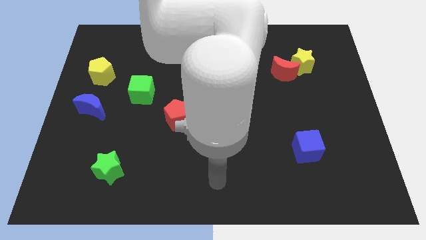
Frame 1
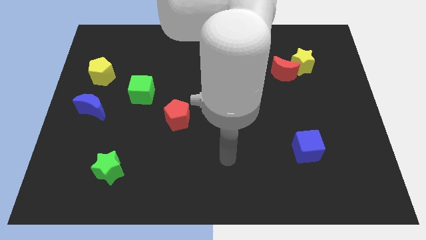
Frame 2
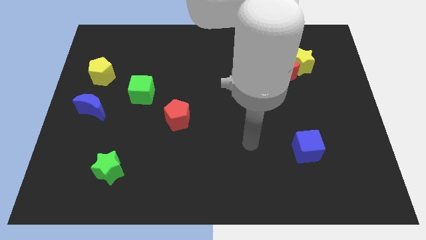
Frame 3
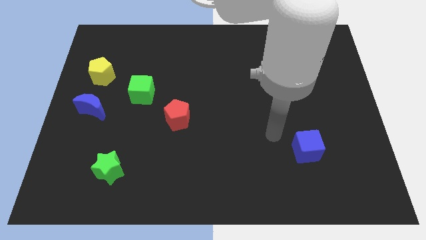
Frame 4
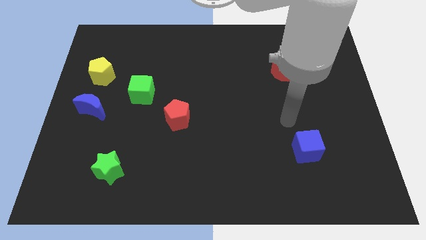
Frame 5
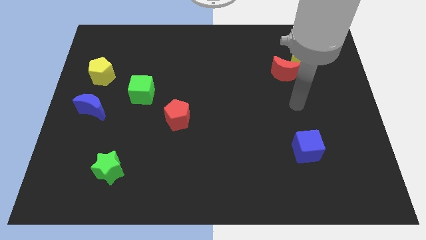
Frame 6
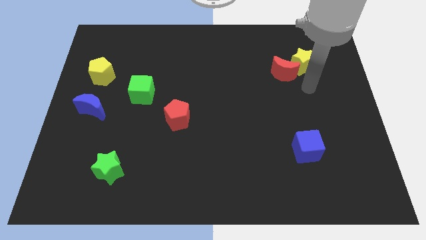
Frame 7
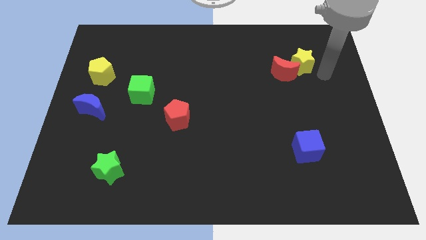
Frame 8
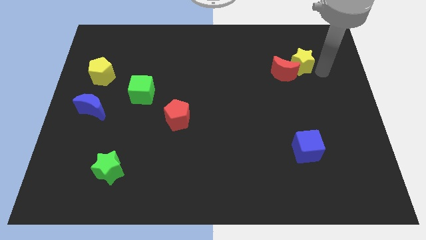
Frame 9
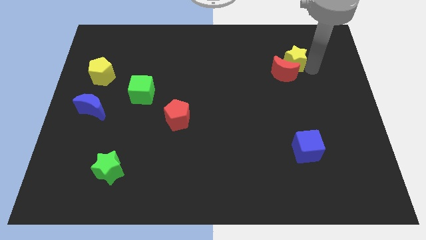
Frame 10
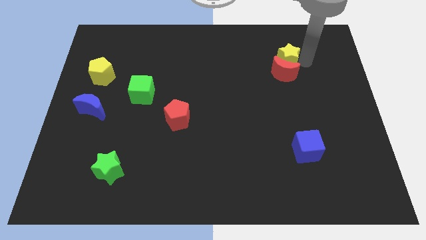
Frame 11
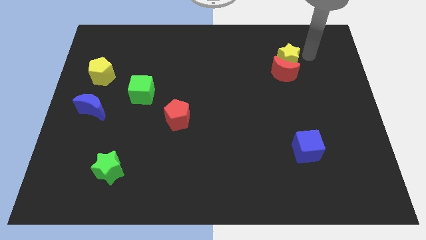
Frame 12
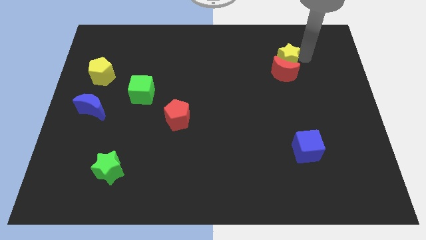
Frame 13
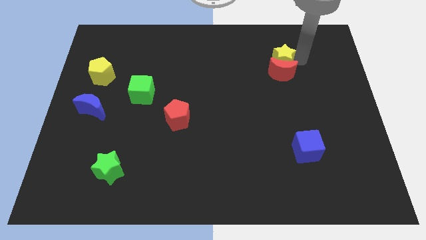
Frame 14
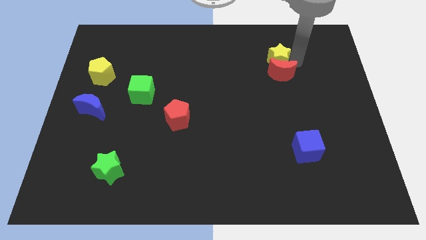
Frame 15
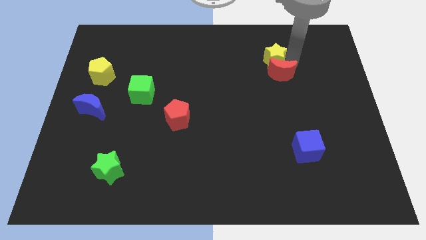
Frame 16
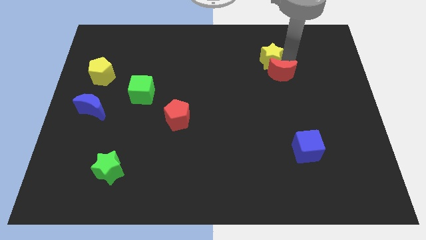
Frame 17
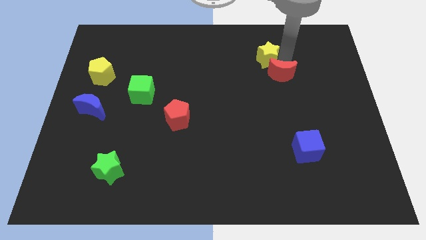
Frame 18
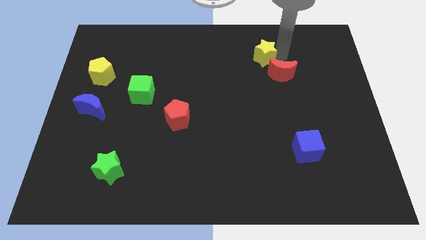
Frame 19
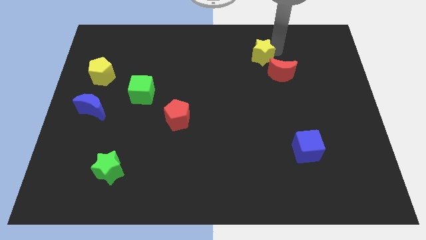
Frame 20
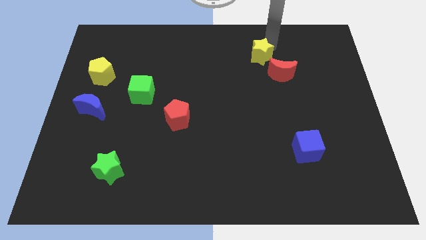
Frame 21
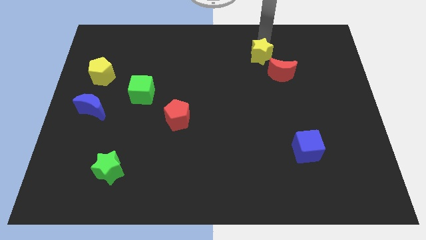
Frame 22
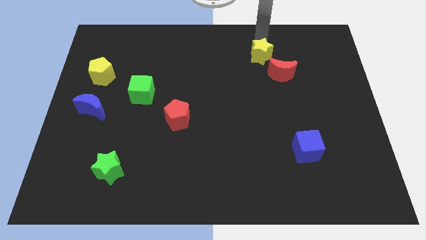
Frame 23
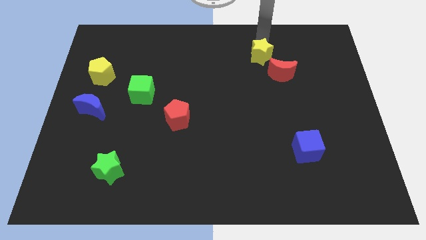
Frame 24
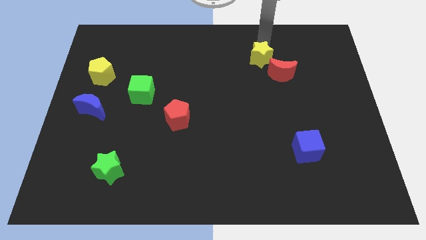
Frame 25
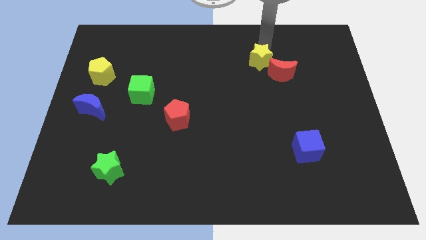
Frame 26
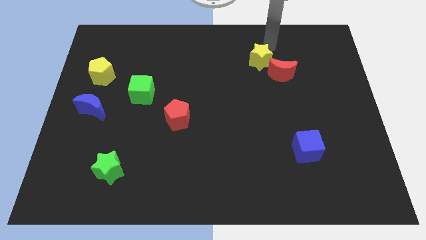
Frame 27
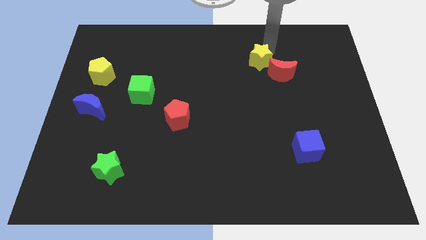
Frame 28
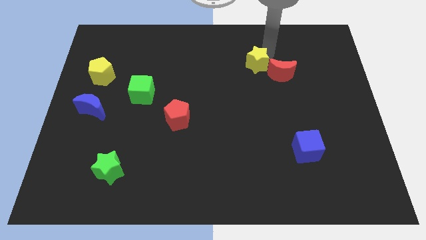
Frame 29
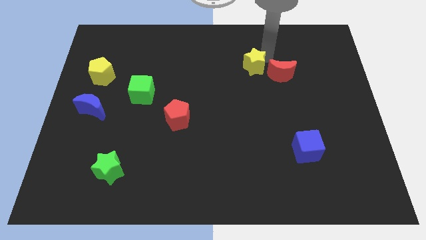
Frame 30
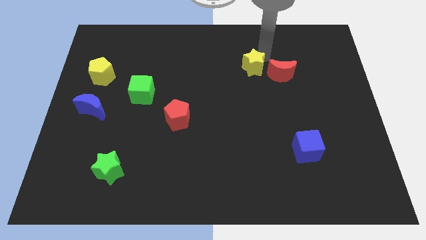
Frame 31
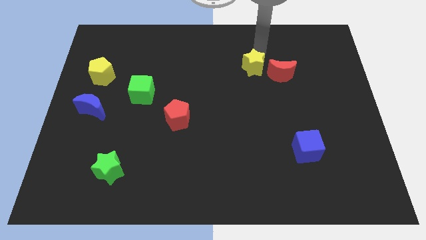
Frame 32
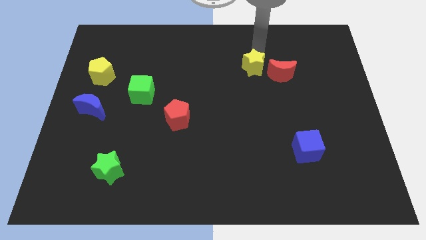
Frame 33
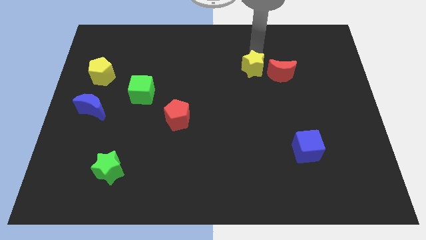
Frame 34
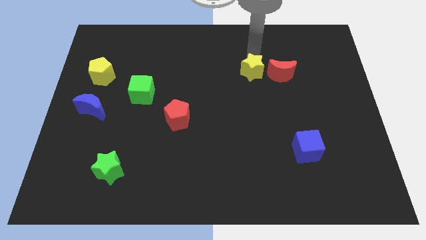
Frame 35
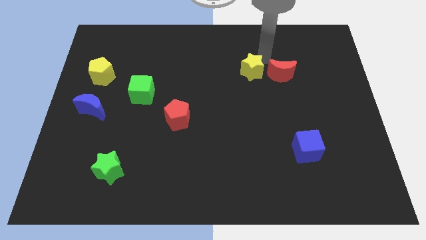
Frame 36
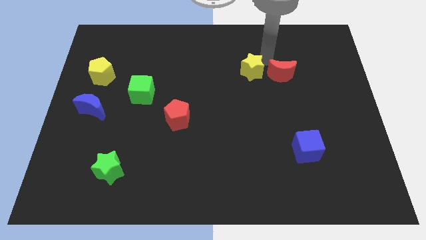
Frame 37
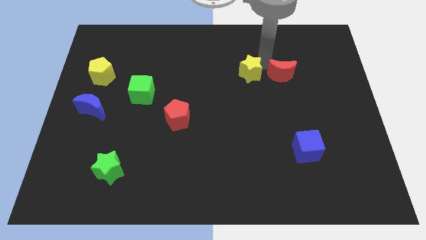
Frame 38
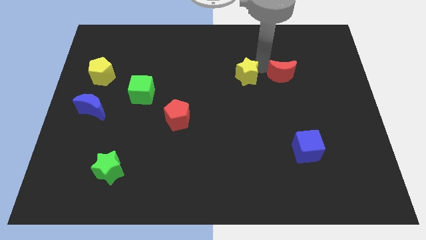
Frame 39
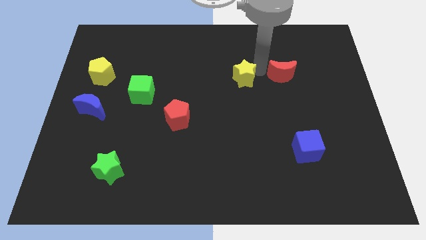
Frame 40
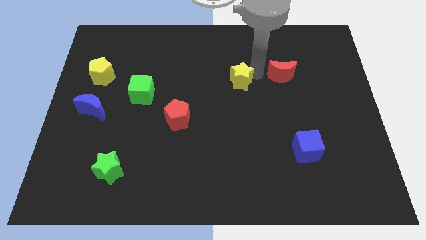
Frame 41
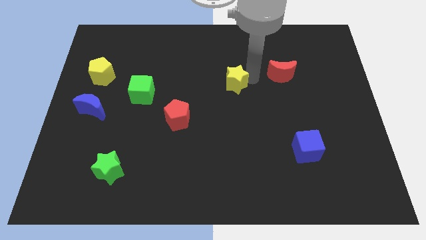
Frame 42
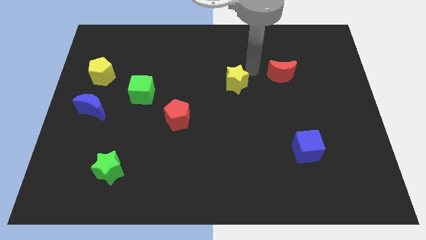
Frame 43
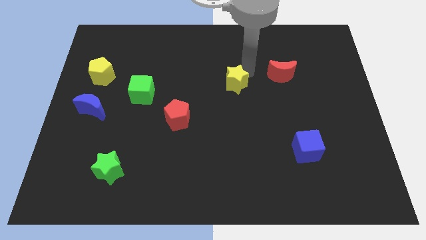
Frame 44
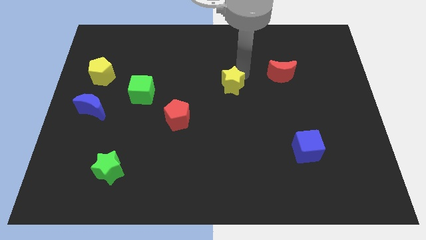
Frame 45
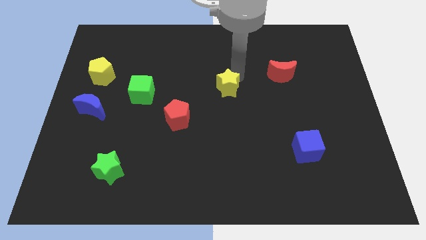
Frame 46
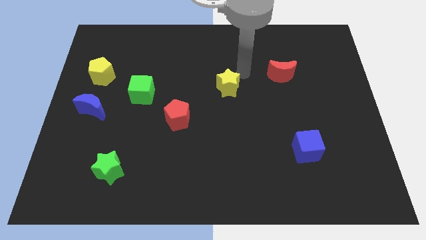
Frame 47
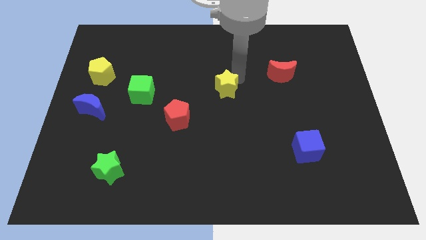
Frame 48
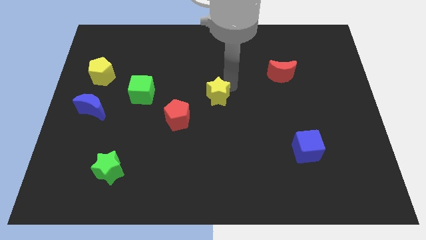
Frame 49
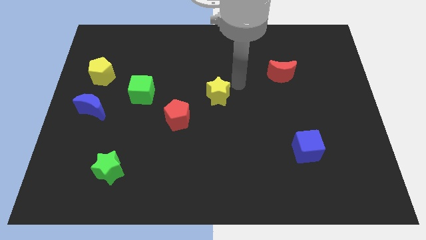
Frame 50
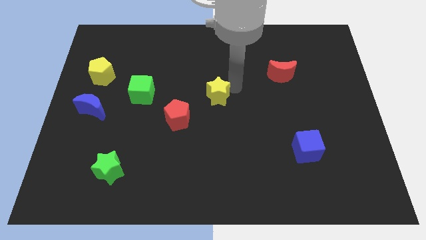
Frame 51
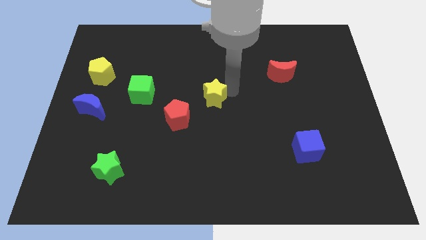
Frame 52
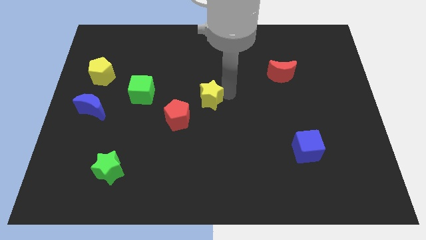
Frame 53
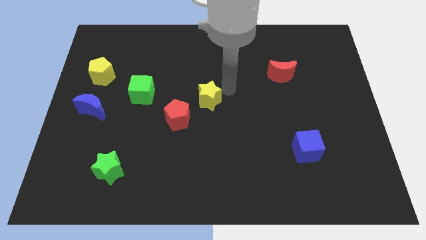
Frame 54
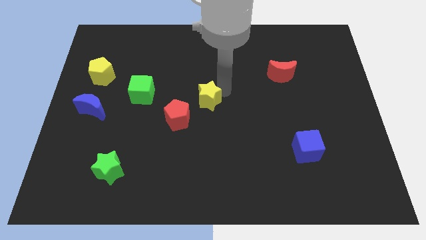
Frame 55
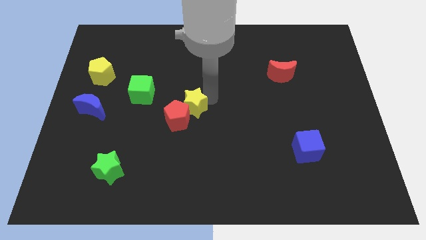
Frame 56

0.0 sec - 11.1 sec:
put the yellow star towards the red pentagon

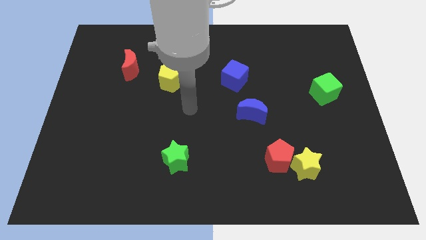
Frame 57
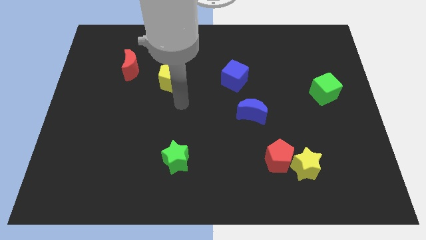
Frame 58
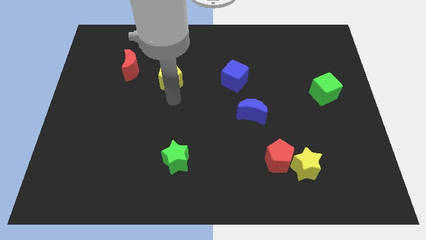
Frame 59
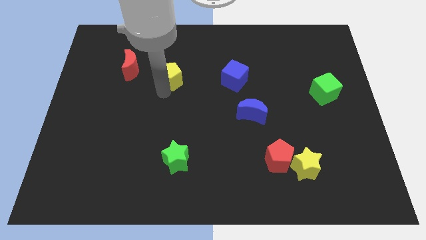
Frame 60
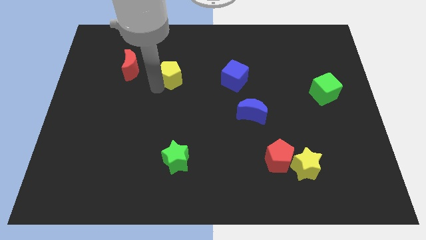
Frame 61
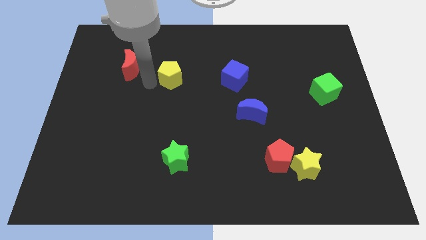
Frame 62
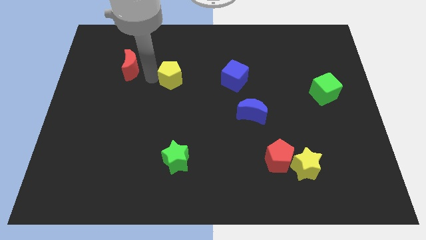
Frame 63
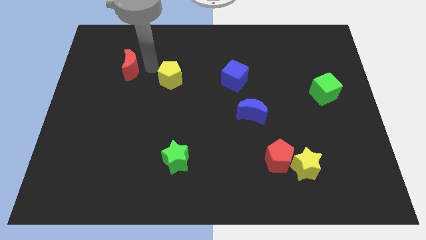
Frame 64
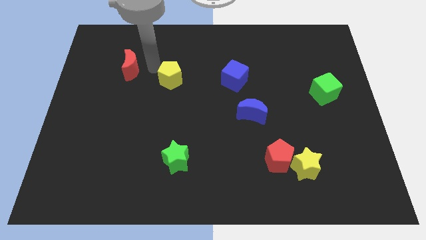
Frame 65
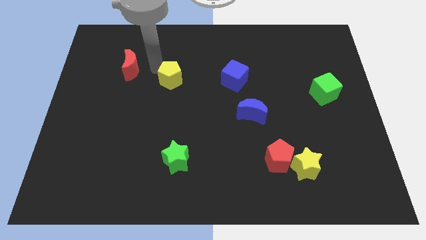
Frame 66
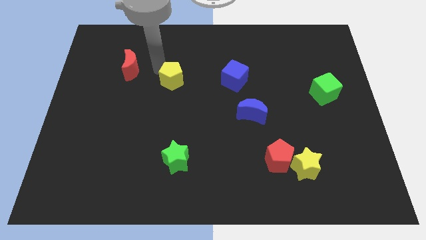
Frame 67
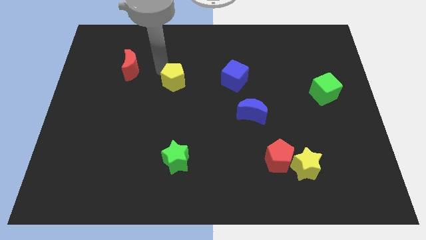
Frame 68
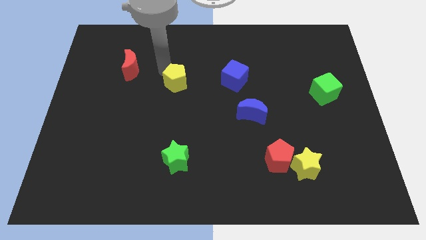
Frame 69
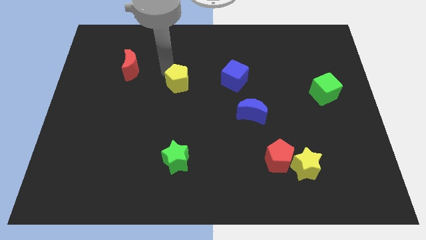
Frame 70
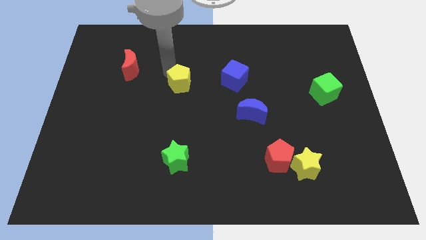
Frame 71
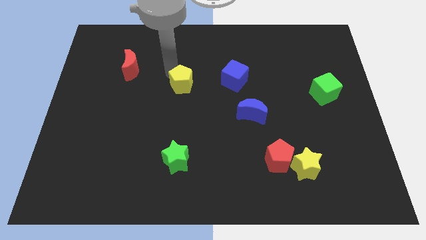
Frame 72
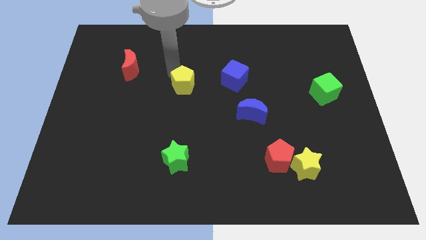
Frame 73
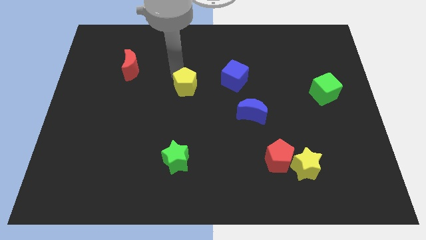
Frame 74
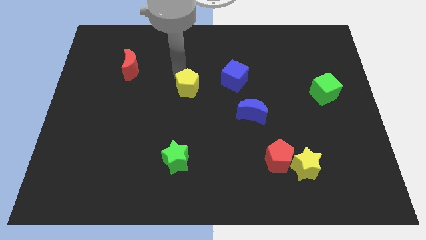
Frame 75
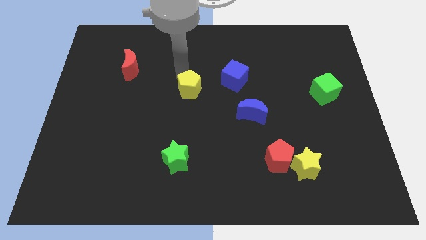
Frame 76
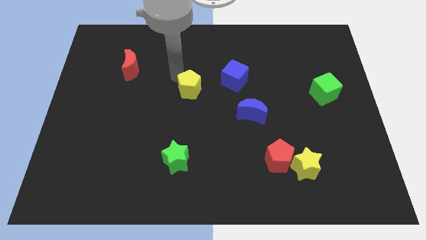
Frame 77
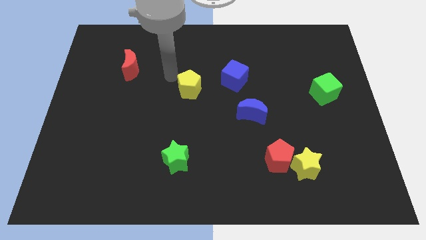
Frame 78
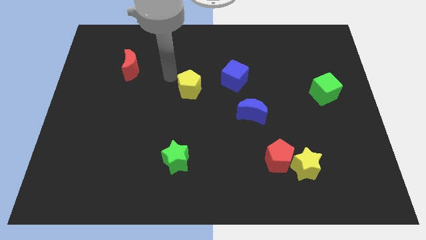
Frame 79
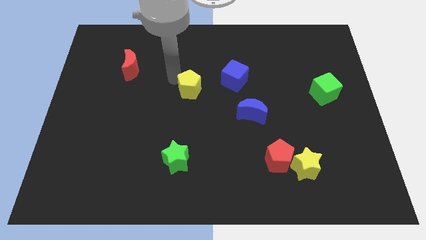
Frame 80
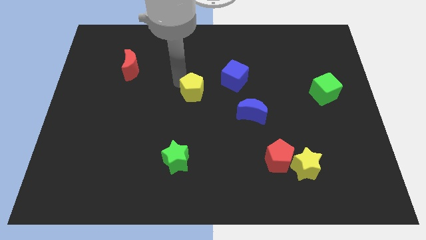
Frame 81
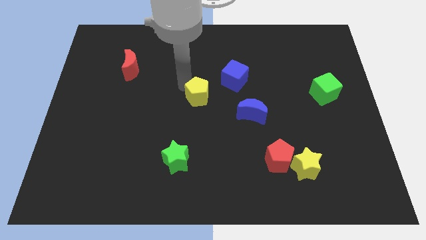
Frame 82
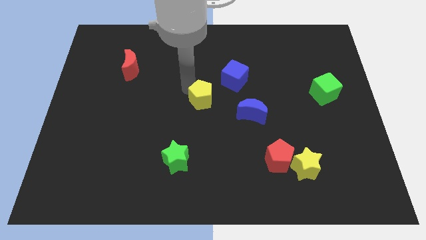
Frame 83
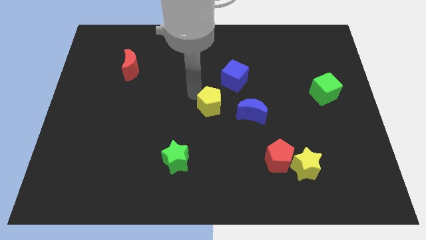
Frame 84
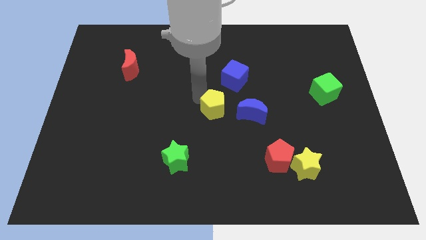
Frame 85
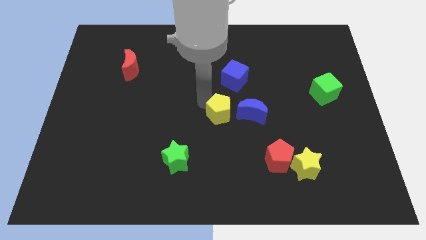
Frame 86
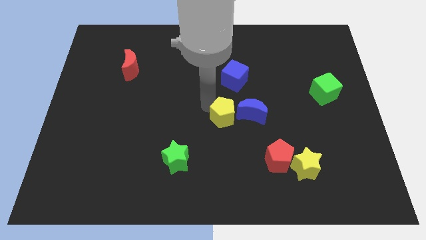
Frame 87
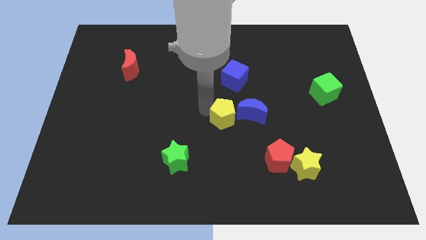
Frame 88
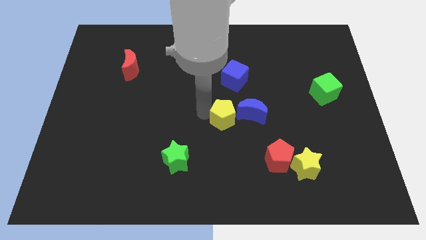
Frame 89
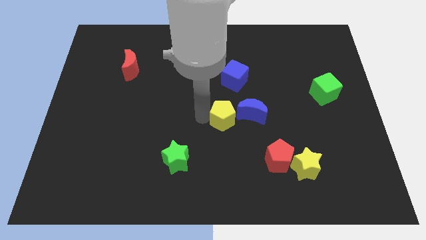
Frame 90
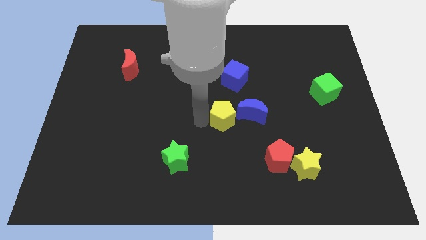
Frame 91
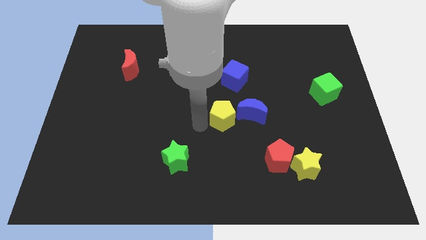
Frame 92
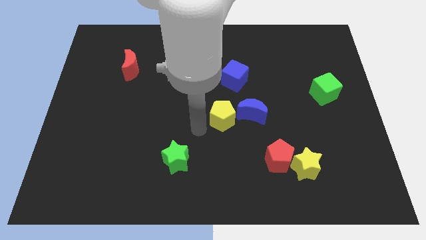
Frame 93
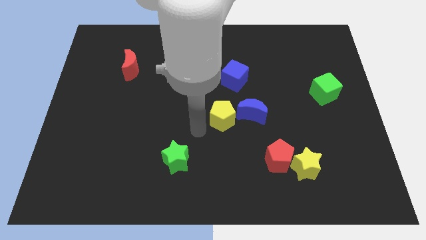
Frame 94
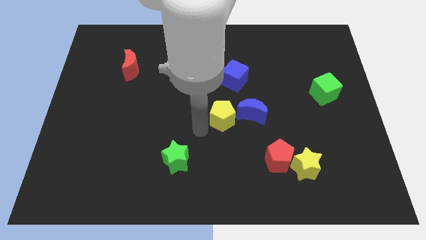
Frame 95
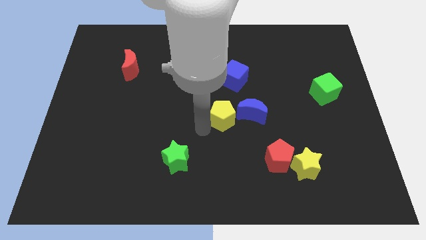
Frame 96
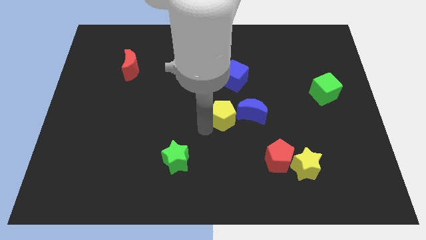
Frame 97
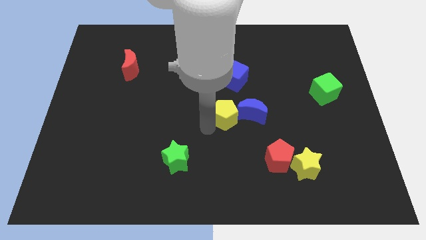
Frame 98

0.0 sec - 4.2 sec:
put the yellow pentagon close to the blue moon
